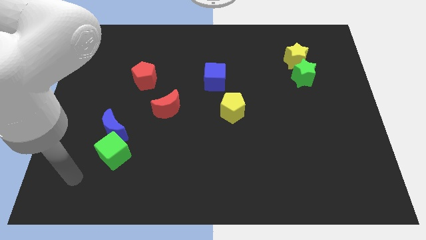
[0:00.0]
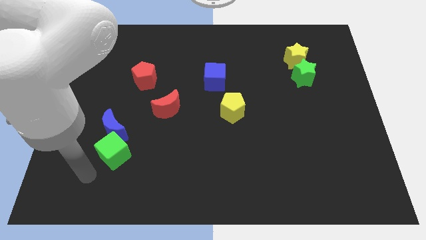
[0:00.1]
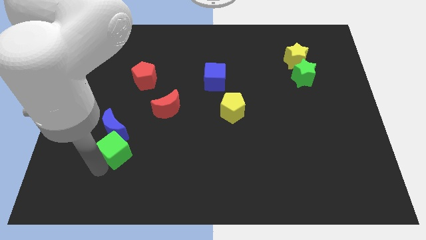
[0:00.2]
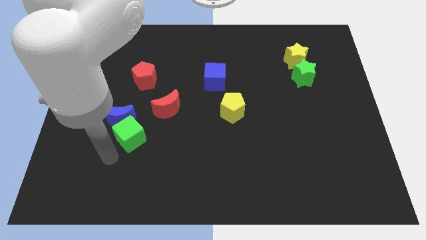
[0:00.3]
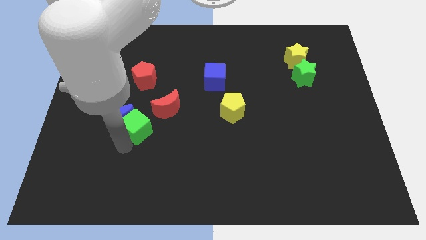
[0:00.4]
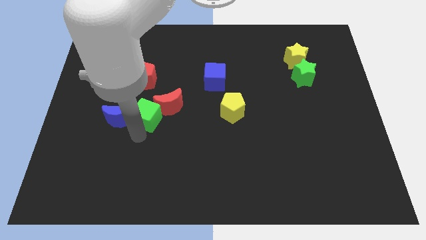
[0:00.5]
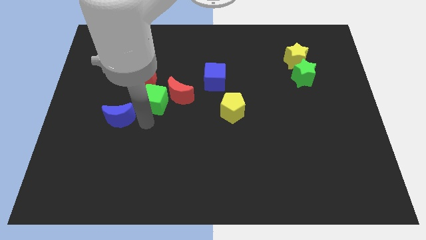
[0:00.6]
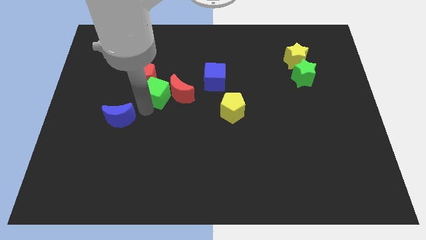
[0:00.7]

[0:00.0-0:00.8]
pull the blue moon apart from the green cube

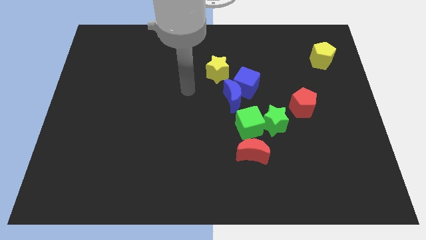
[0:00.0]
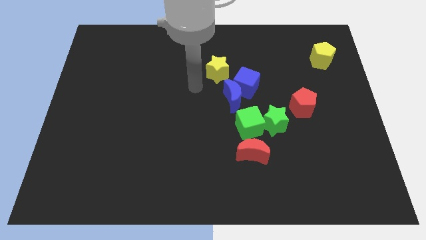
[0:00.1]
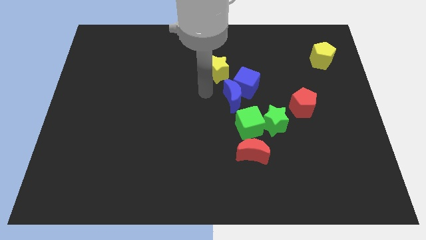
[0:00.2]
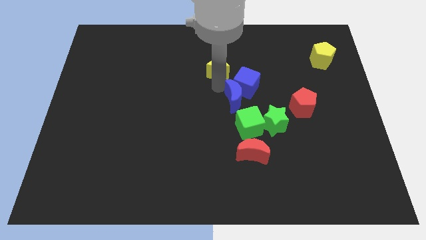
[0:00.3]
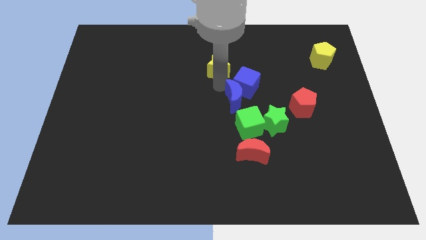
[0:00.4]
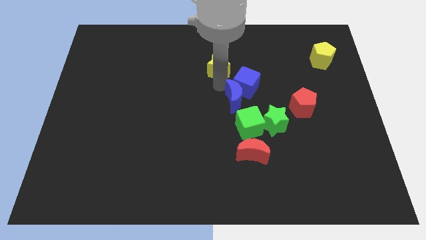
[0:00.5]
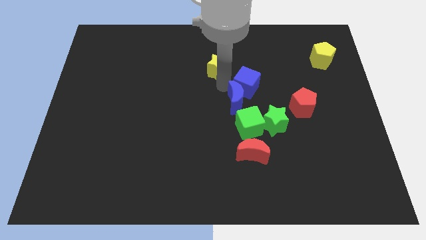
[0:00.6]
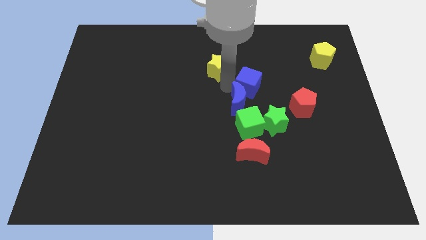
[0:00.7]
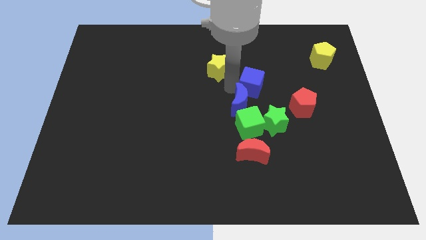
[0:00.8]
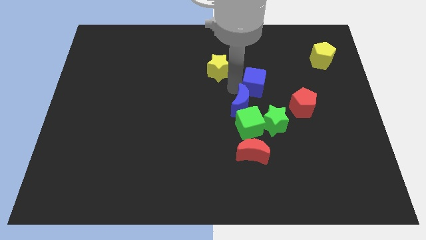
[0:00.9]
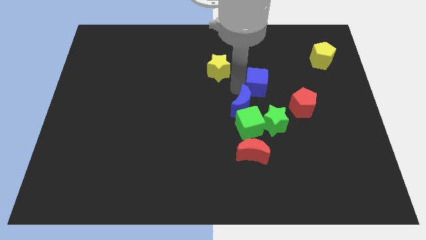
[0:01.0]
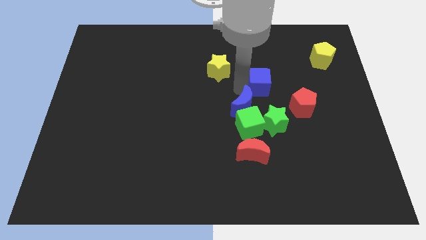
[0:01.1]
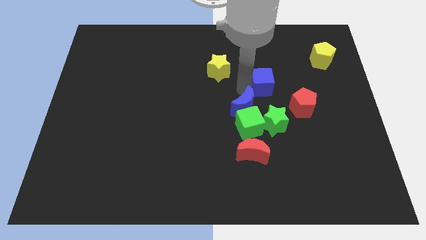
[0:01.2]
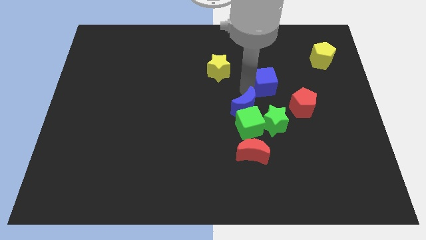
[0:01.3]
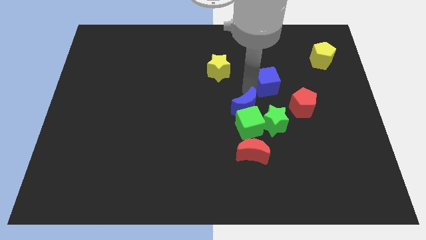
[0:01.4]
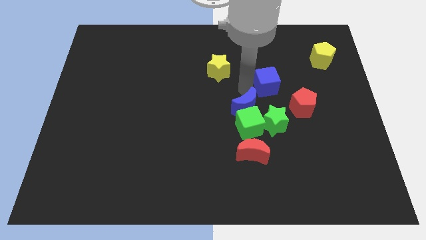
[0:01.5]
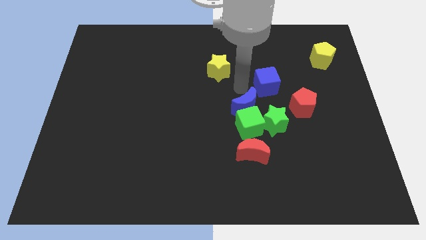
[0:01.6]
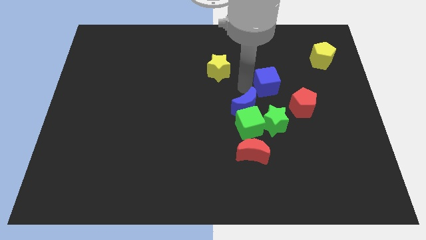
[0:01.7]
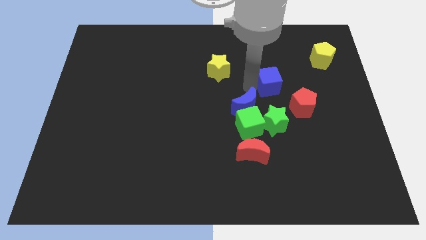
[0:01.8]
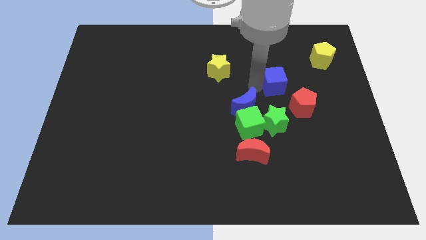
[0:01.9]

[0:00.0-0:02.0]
separate the blue cube from the blue moon and yellow star

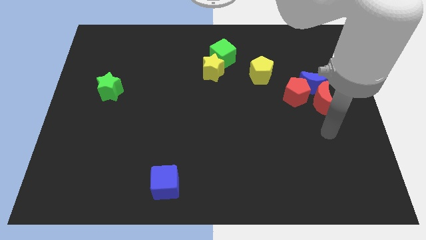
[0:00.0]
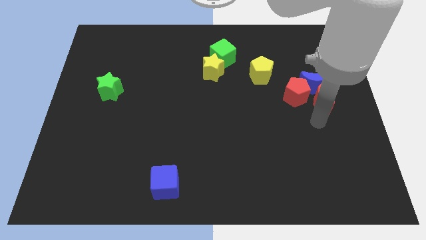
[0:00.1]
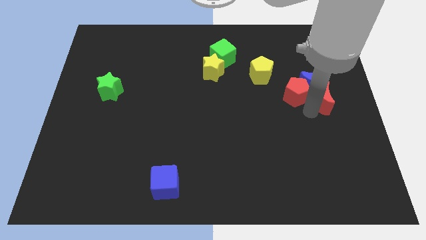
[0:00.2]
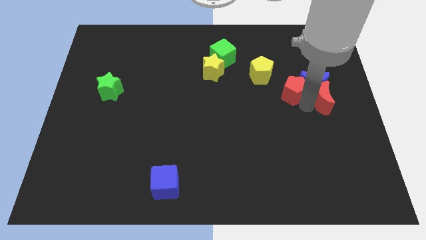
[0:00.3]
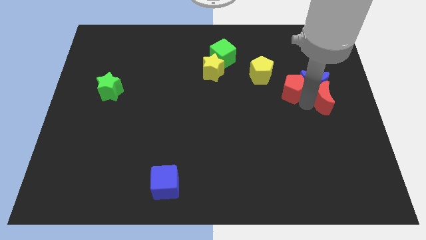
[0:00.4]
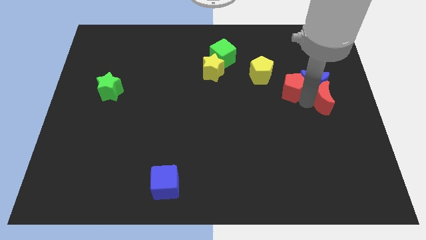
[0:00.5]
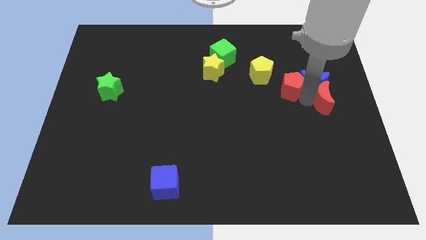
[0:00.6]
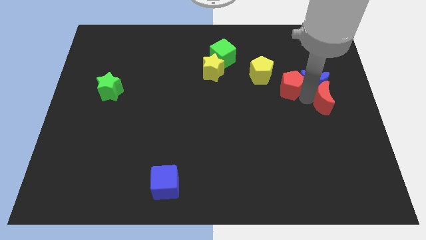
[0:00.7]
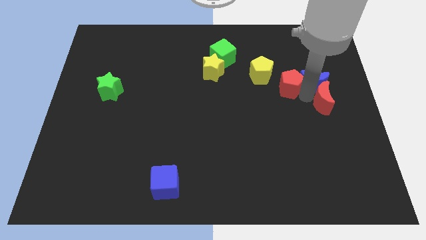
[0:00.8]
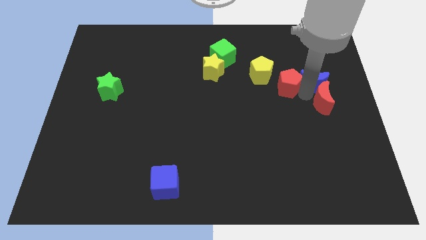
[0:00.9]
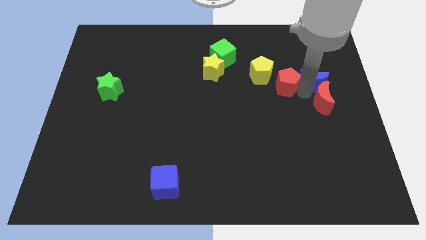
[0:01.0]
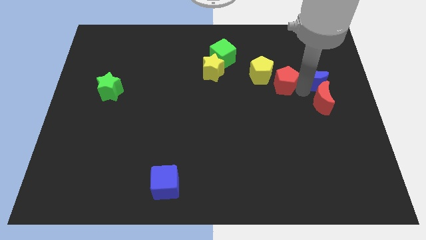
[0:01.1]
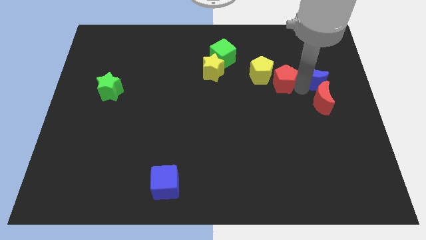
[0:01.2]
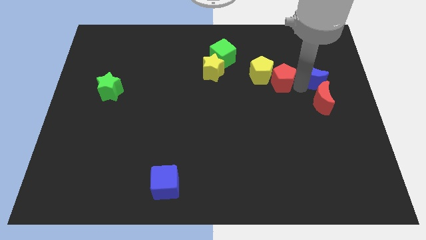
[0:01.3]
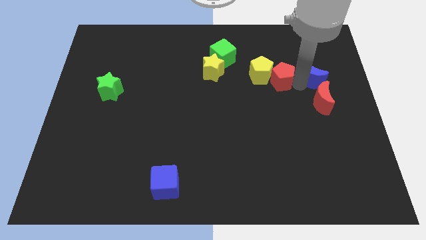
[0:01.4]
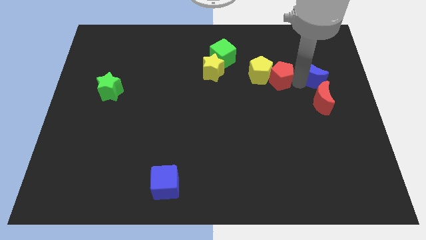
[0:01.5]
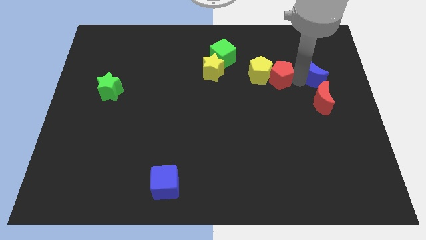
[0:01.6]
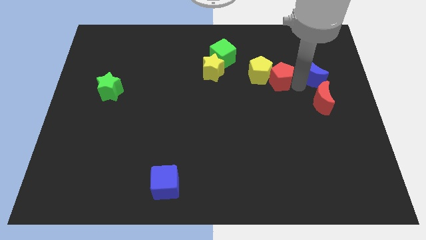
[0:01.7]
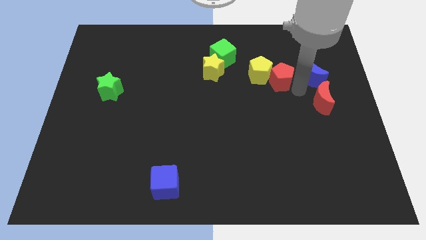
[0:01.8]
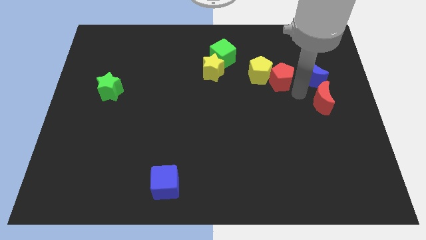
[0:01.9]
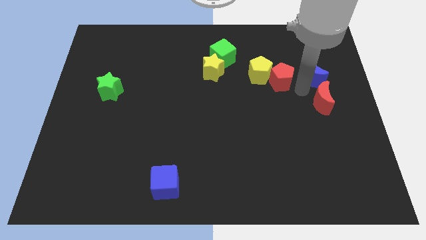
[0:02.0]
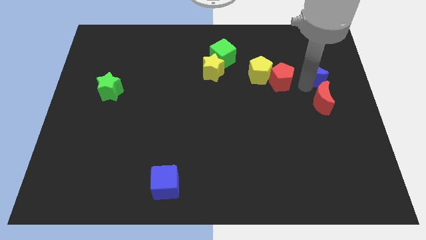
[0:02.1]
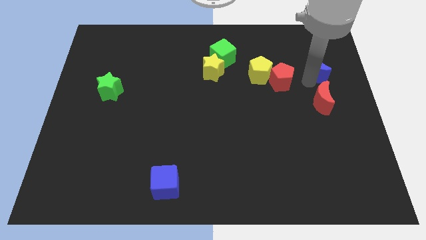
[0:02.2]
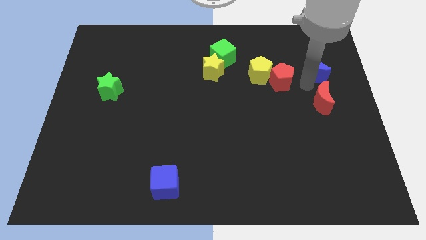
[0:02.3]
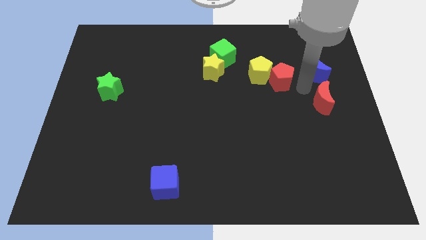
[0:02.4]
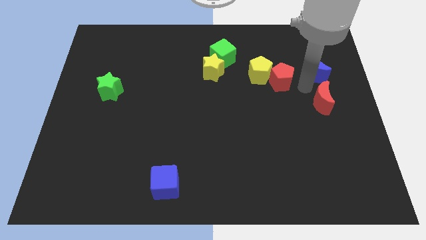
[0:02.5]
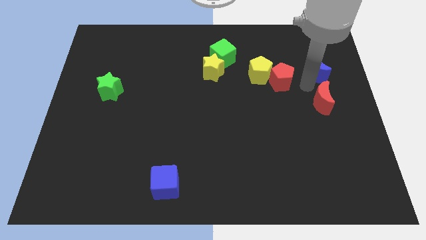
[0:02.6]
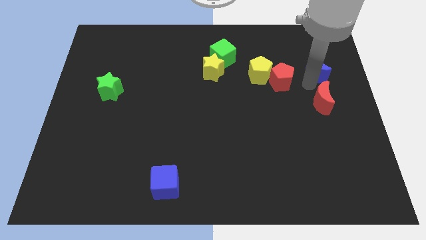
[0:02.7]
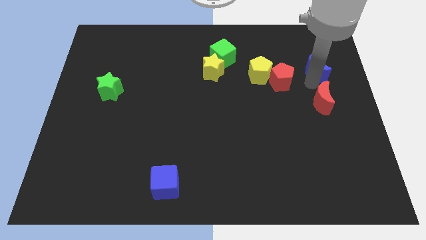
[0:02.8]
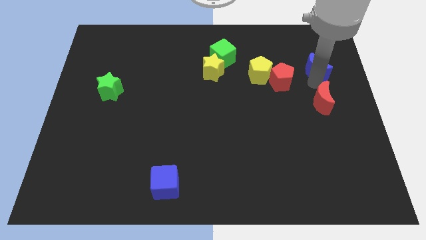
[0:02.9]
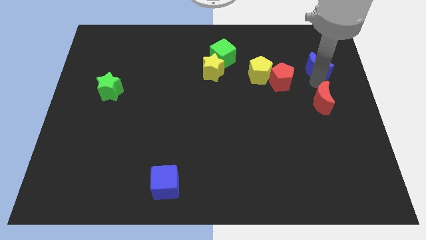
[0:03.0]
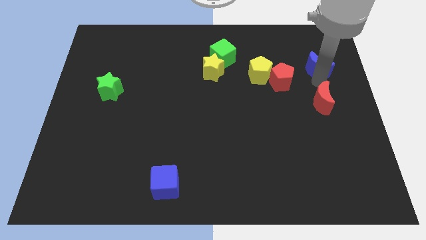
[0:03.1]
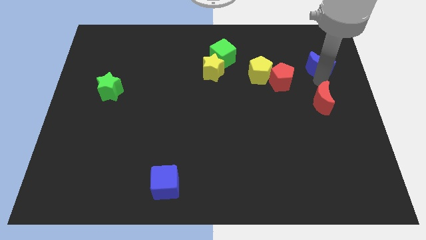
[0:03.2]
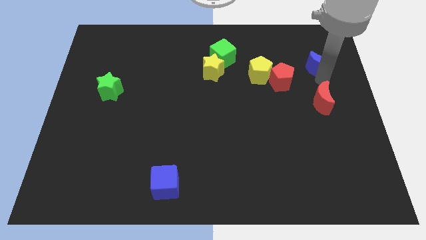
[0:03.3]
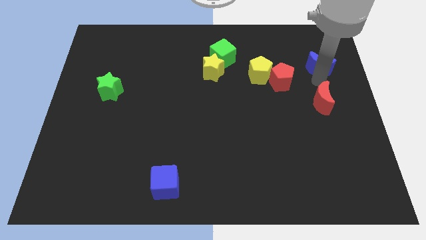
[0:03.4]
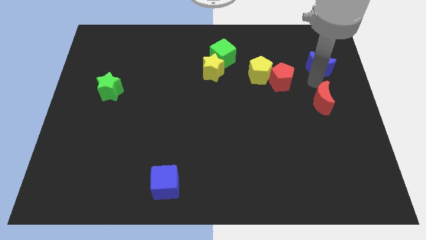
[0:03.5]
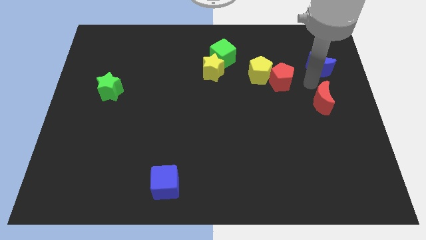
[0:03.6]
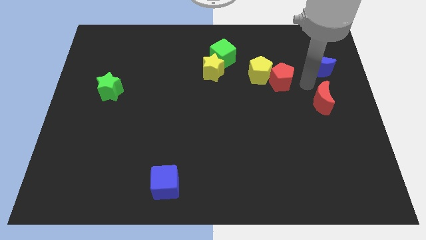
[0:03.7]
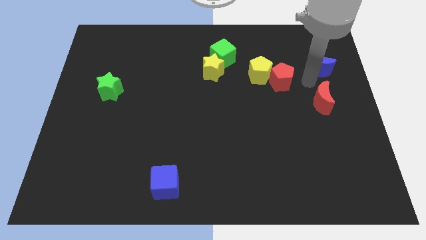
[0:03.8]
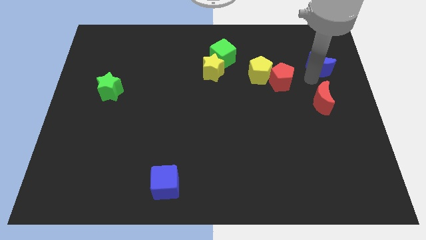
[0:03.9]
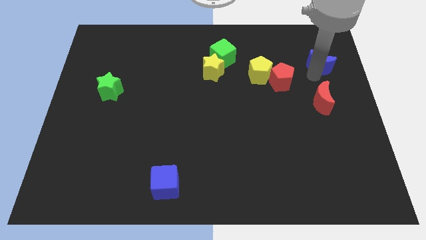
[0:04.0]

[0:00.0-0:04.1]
move the blue moon away from the red moon and red pentagon

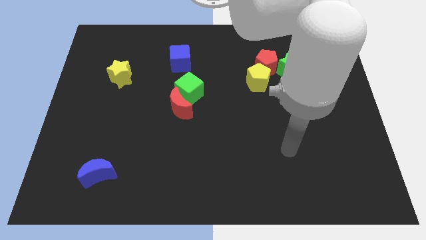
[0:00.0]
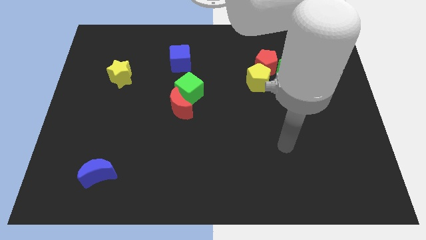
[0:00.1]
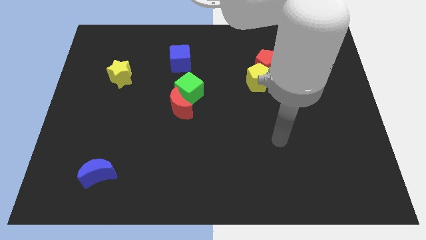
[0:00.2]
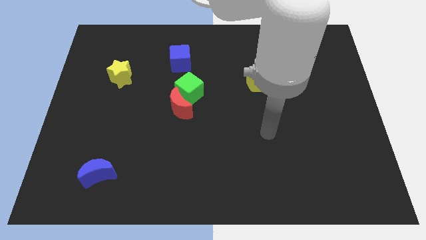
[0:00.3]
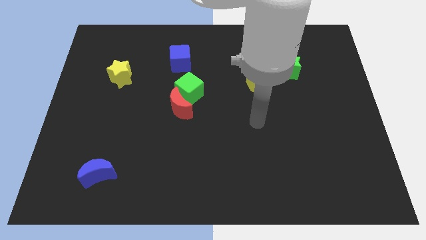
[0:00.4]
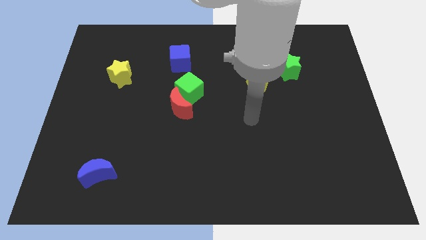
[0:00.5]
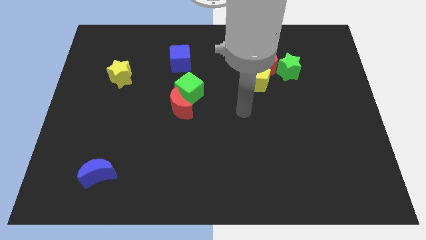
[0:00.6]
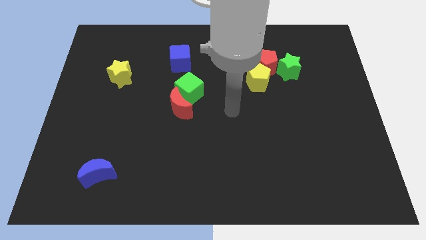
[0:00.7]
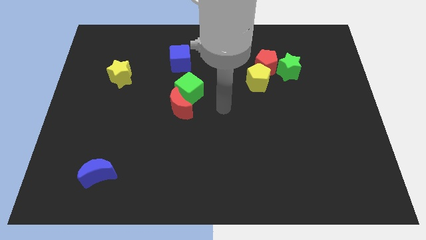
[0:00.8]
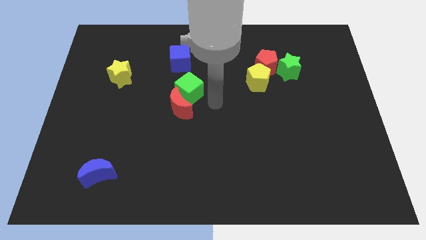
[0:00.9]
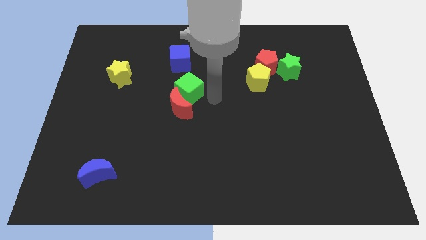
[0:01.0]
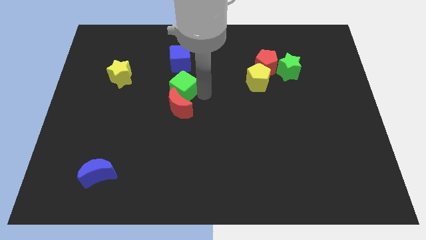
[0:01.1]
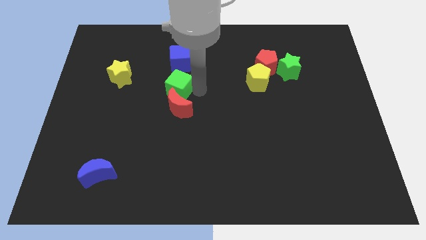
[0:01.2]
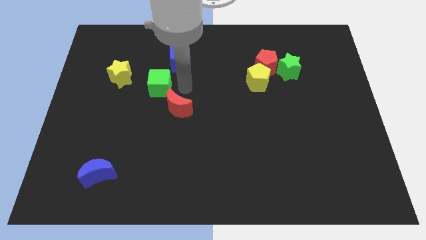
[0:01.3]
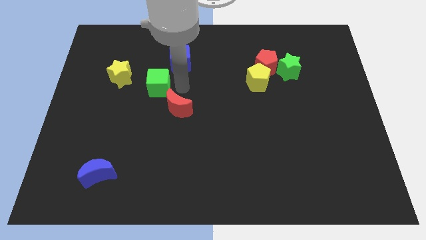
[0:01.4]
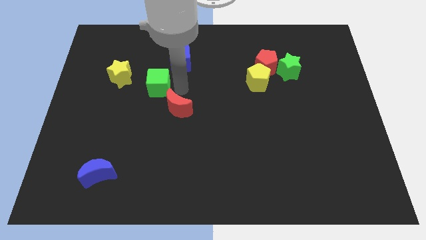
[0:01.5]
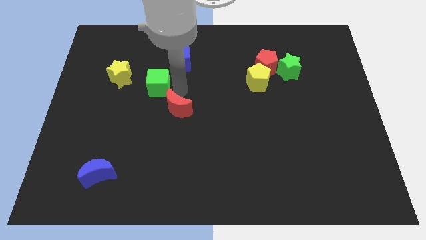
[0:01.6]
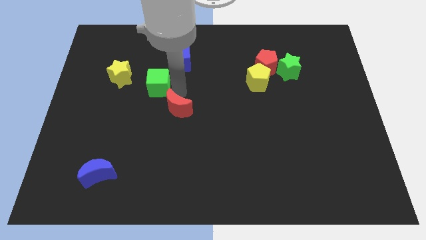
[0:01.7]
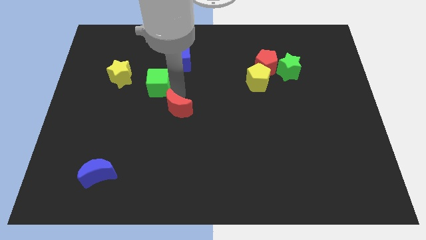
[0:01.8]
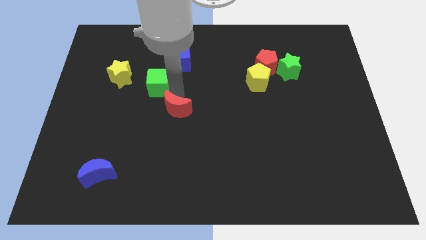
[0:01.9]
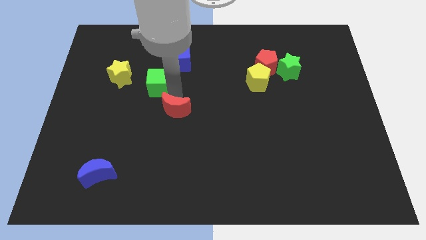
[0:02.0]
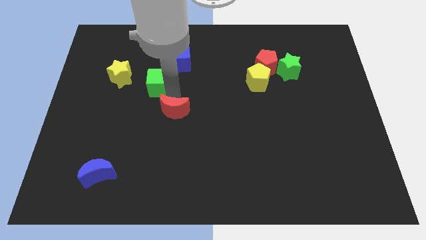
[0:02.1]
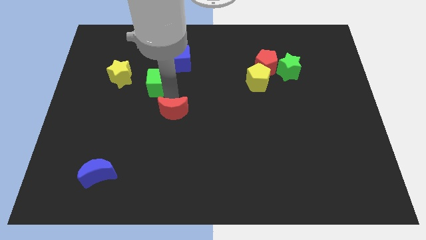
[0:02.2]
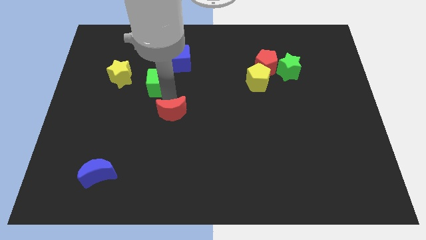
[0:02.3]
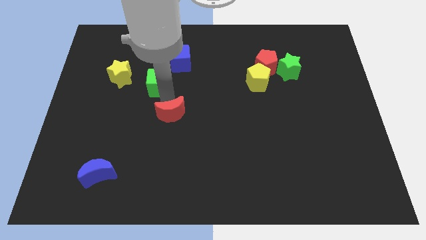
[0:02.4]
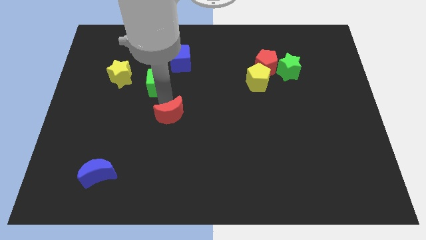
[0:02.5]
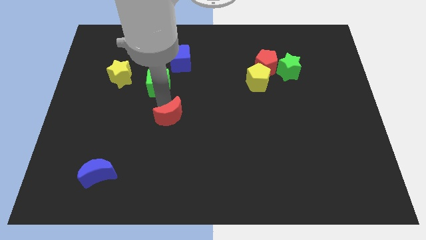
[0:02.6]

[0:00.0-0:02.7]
move the red moon away from the green cube

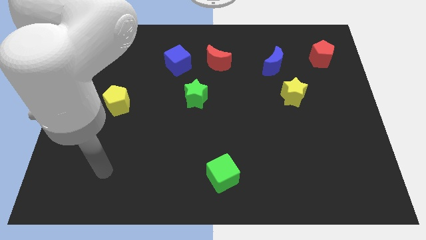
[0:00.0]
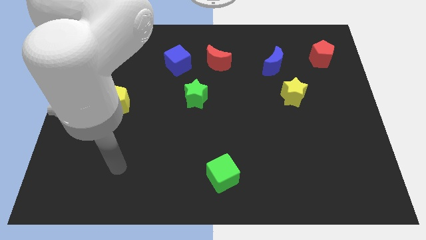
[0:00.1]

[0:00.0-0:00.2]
pull the red moon apart from the blue cube
